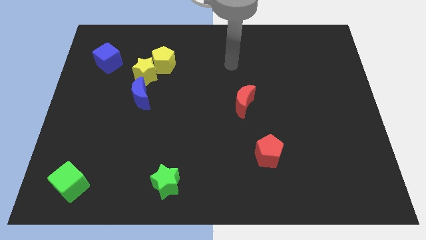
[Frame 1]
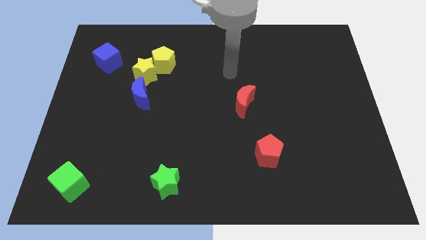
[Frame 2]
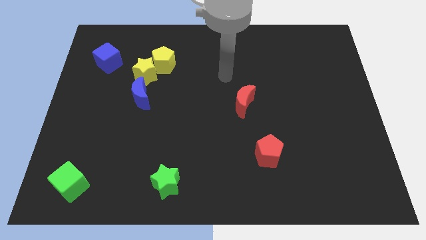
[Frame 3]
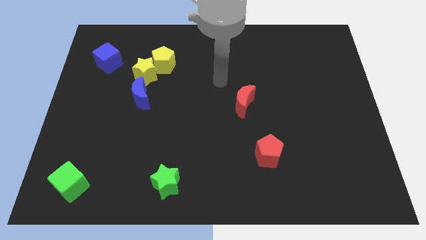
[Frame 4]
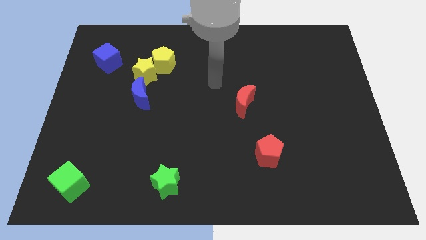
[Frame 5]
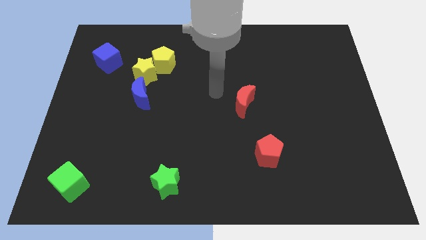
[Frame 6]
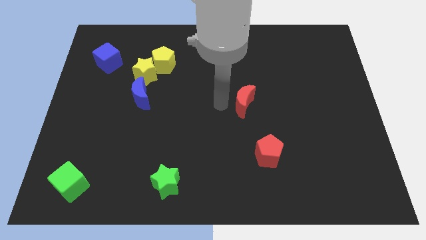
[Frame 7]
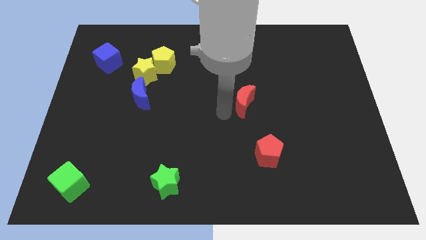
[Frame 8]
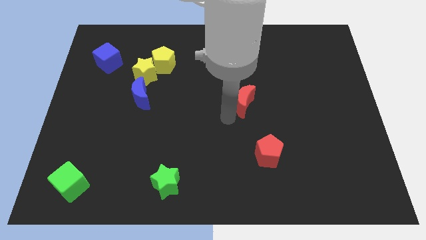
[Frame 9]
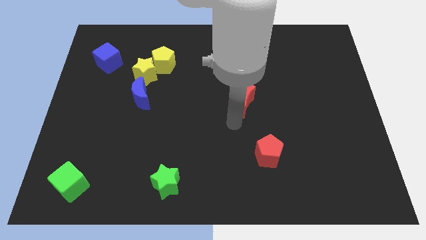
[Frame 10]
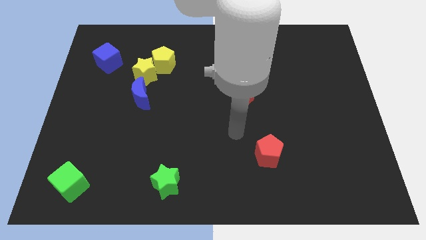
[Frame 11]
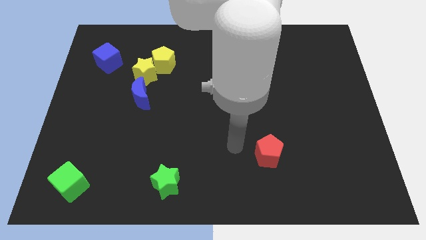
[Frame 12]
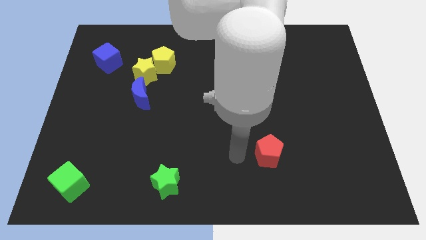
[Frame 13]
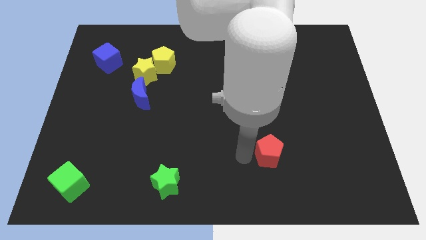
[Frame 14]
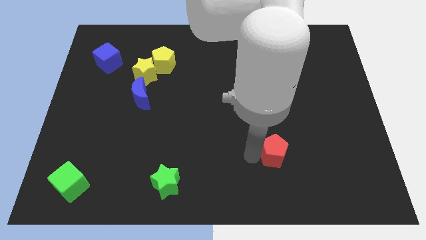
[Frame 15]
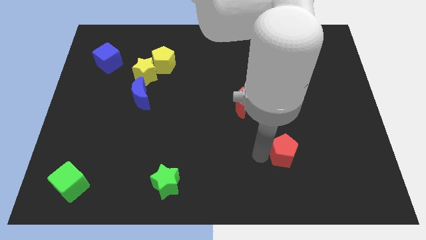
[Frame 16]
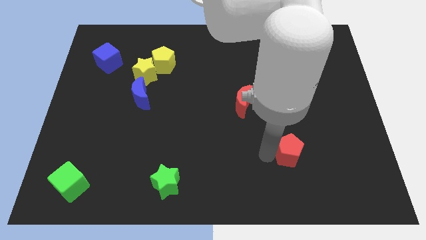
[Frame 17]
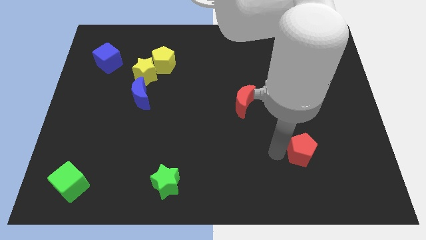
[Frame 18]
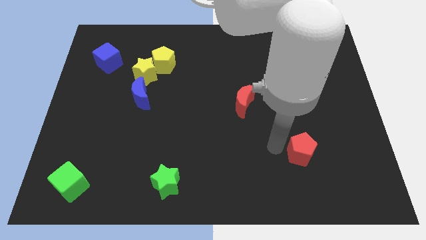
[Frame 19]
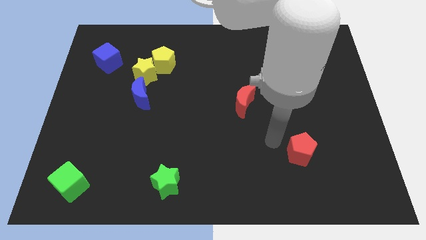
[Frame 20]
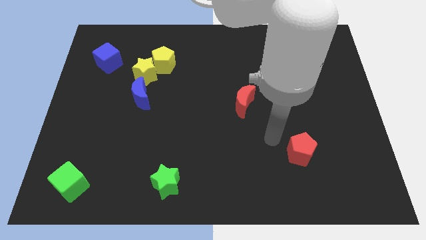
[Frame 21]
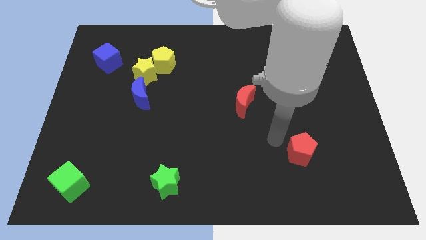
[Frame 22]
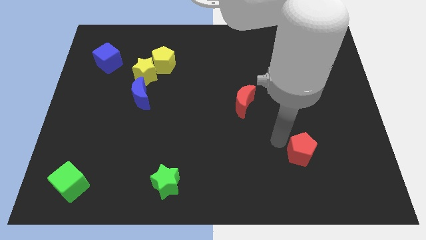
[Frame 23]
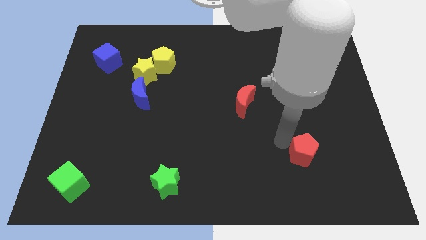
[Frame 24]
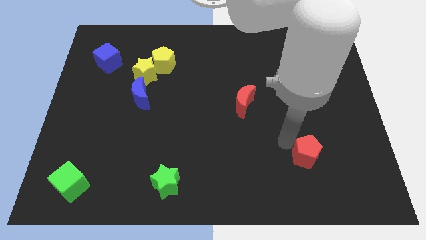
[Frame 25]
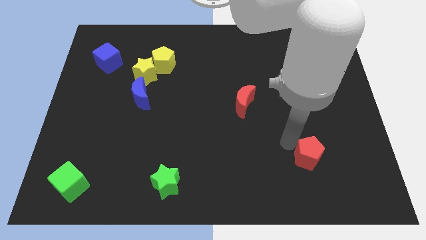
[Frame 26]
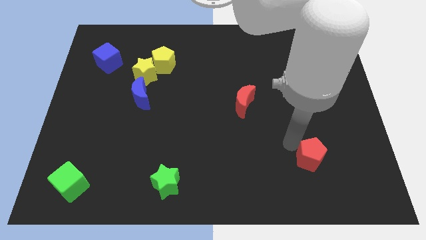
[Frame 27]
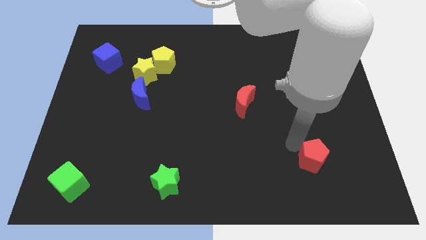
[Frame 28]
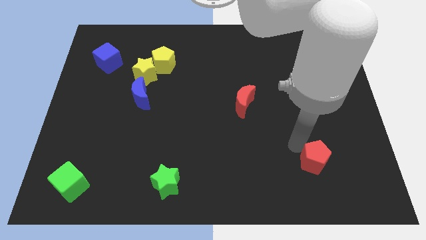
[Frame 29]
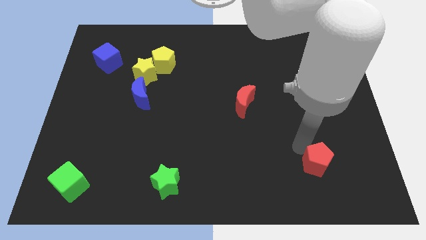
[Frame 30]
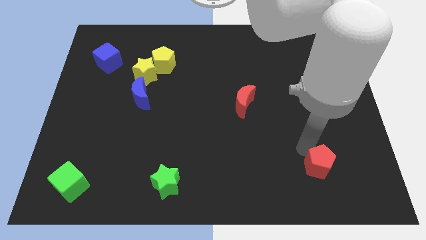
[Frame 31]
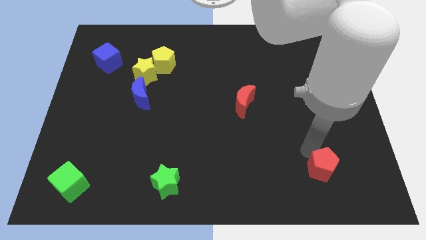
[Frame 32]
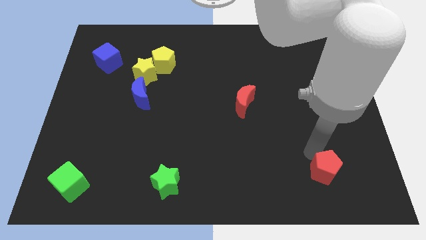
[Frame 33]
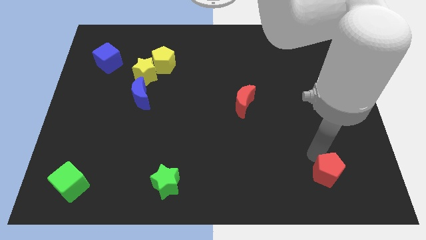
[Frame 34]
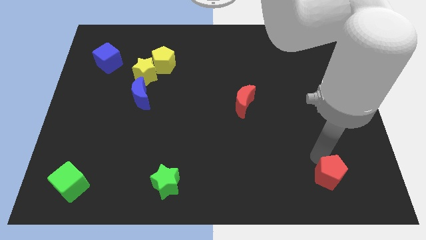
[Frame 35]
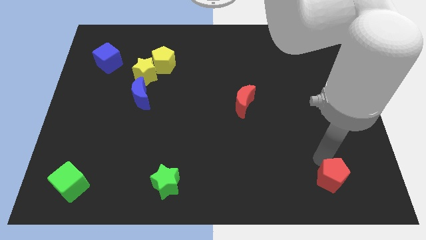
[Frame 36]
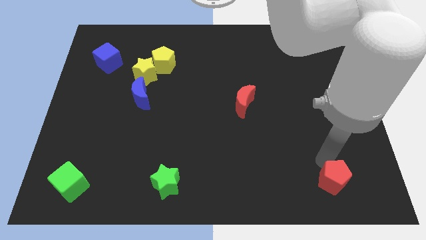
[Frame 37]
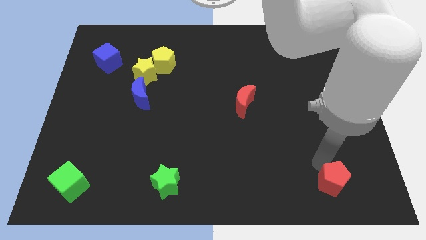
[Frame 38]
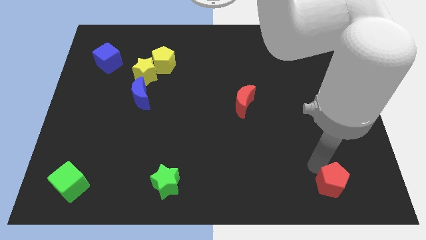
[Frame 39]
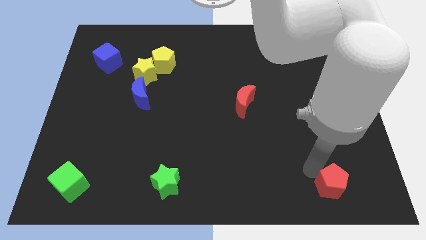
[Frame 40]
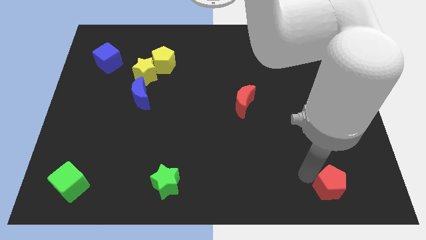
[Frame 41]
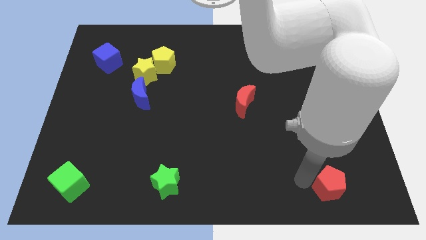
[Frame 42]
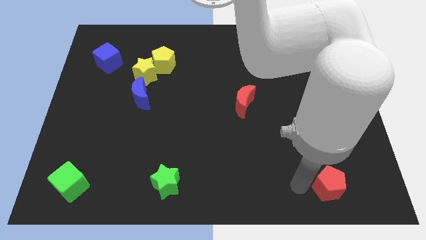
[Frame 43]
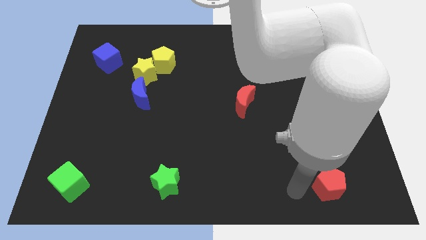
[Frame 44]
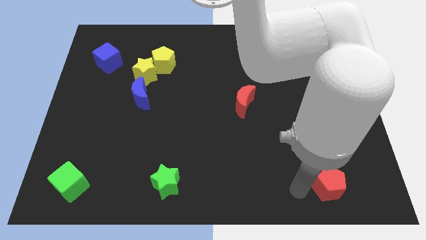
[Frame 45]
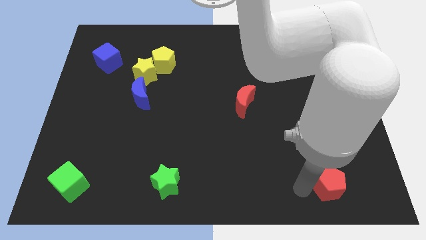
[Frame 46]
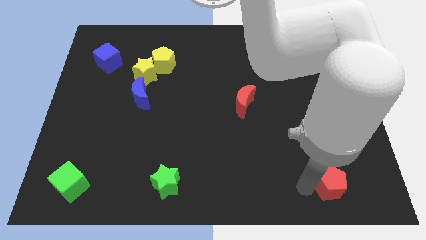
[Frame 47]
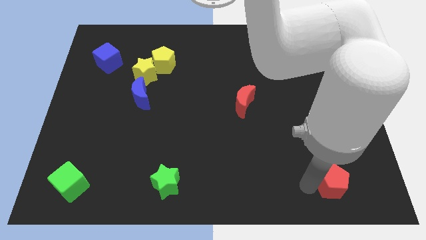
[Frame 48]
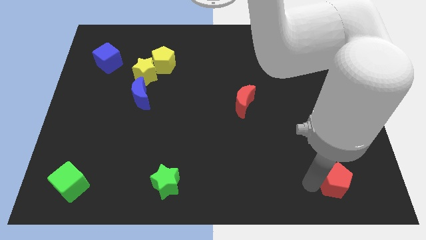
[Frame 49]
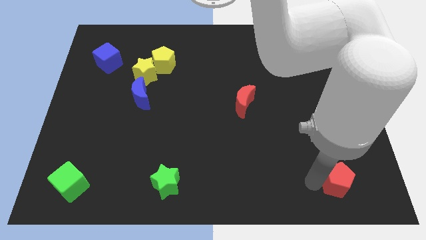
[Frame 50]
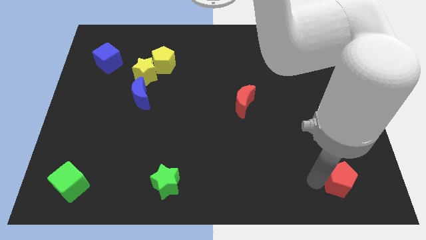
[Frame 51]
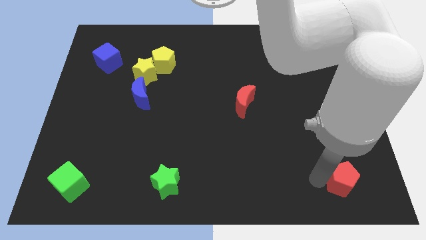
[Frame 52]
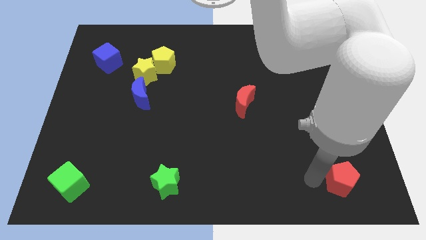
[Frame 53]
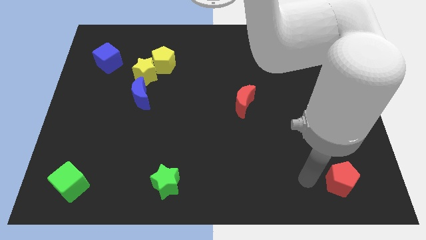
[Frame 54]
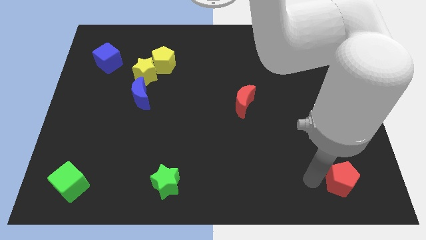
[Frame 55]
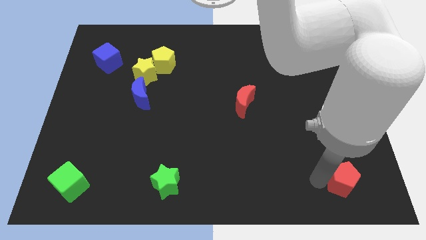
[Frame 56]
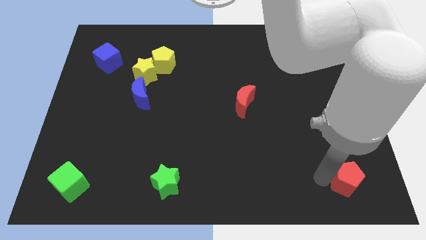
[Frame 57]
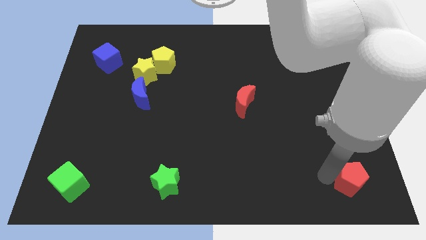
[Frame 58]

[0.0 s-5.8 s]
slide the red pentagon to the bottom right of the board

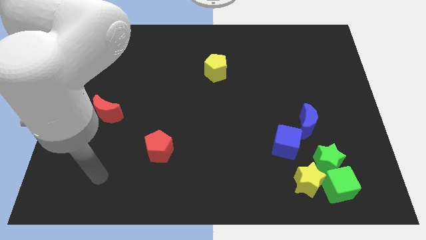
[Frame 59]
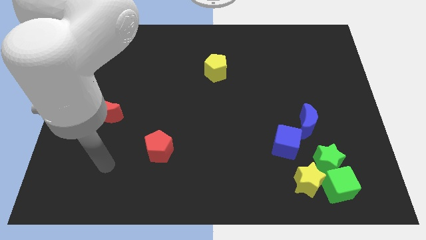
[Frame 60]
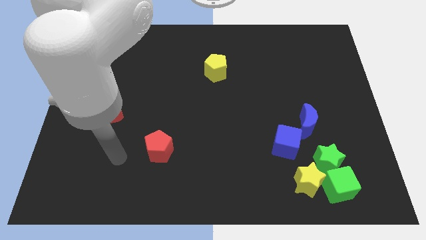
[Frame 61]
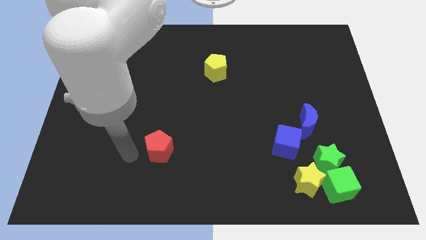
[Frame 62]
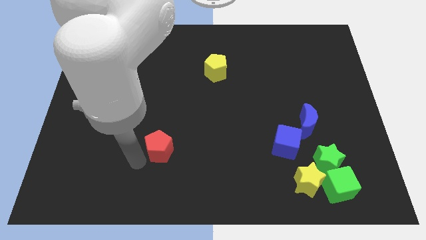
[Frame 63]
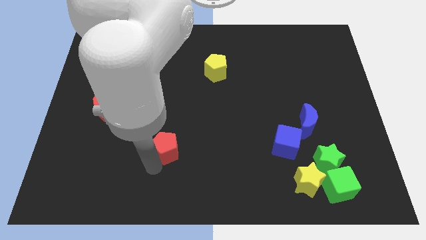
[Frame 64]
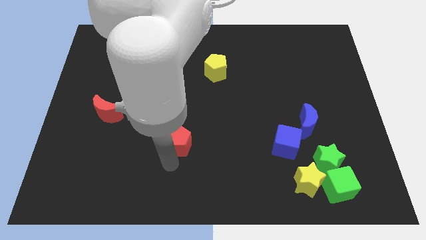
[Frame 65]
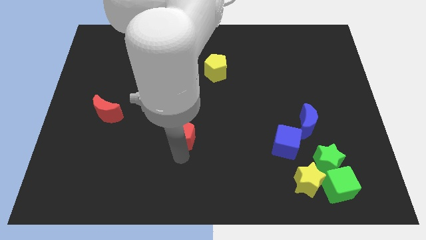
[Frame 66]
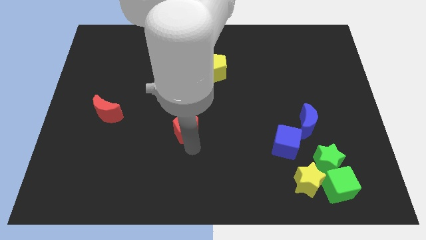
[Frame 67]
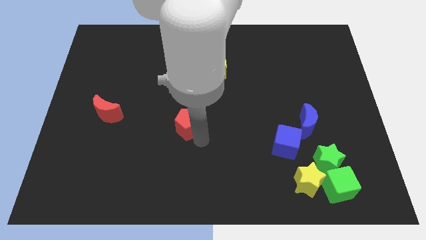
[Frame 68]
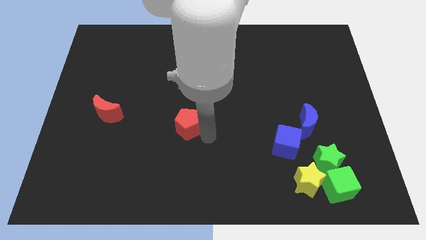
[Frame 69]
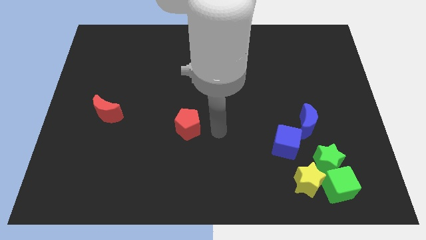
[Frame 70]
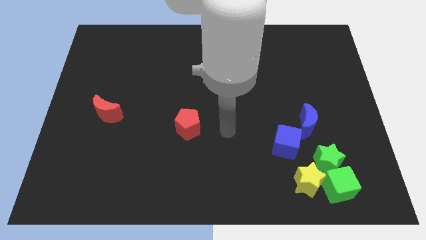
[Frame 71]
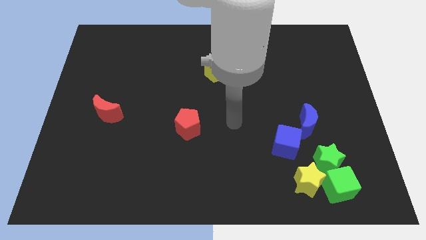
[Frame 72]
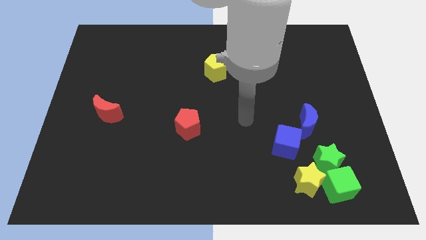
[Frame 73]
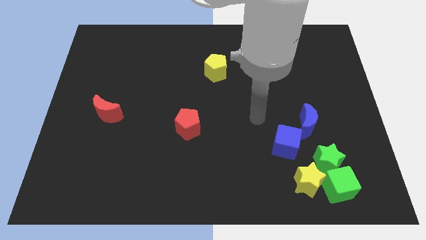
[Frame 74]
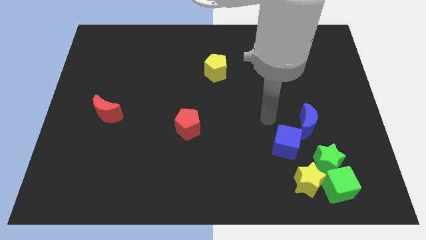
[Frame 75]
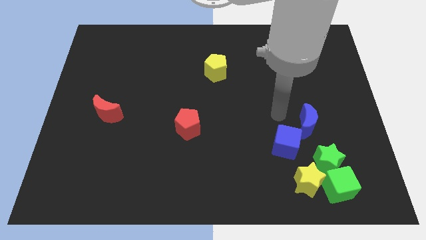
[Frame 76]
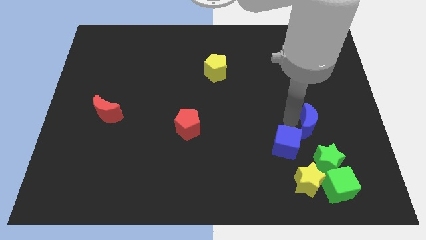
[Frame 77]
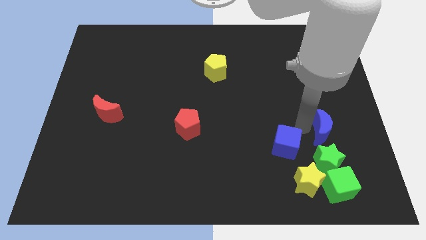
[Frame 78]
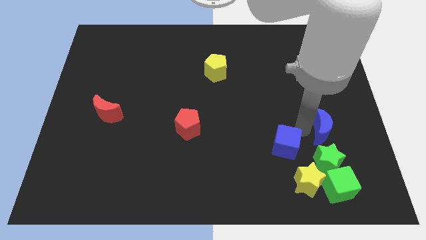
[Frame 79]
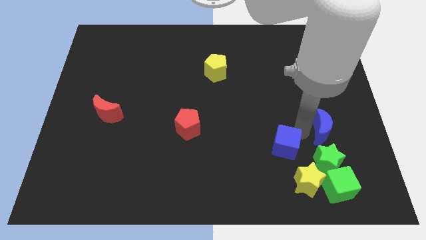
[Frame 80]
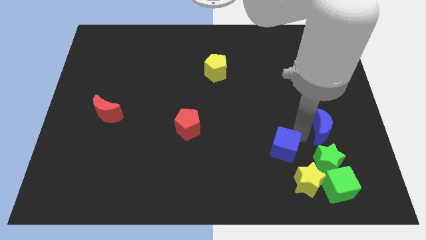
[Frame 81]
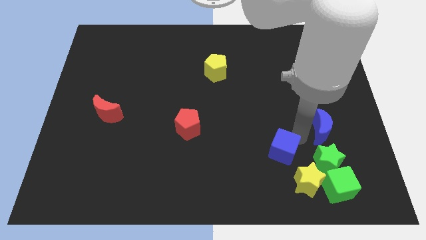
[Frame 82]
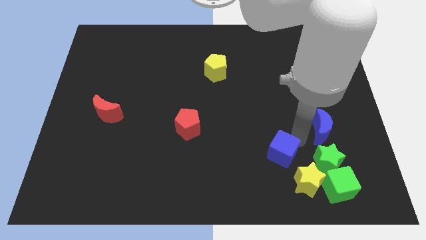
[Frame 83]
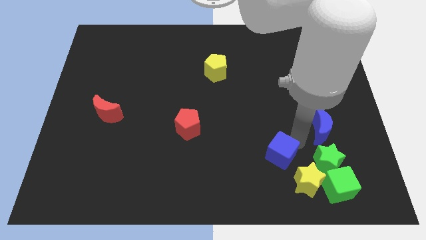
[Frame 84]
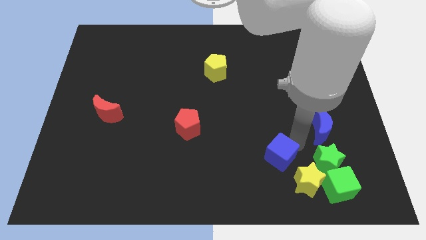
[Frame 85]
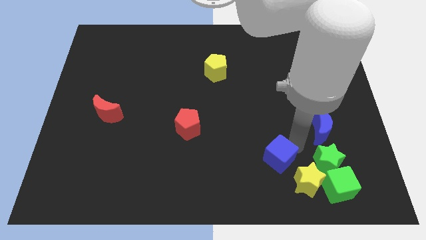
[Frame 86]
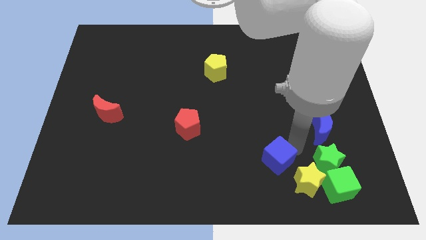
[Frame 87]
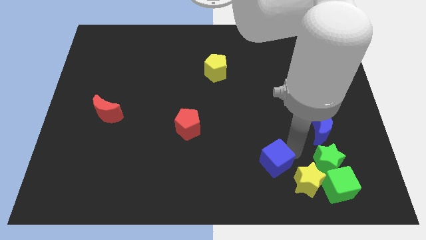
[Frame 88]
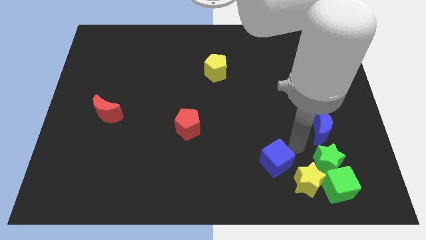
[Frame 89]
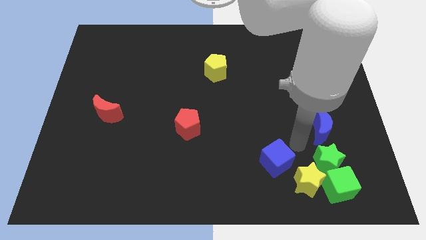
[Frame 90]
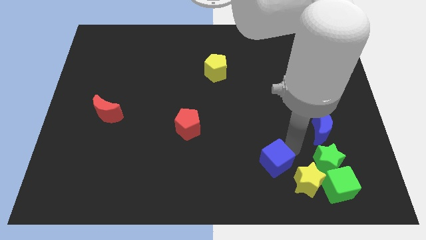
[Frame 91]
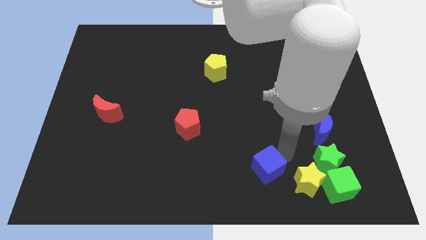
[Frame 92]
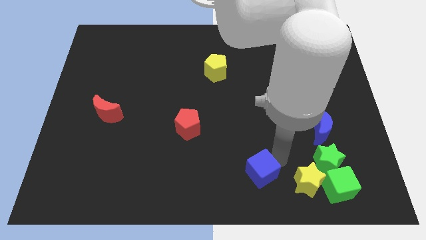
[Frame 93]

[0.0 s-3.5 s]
move the blue cube to the bottom side
